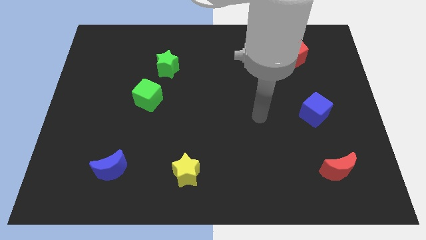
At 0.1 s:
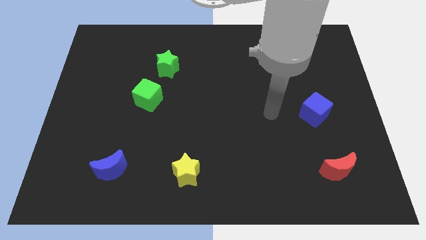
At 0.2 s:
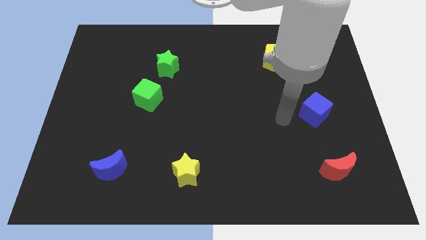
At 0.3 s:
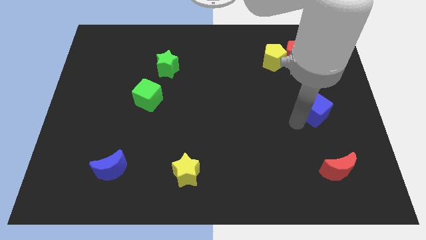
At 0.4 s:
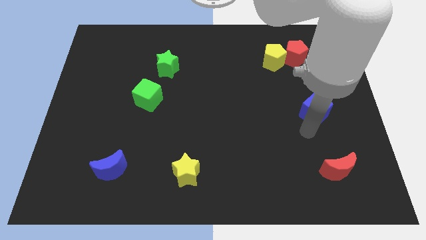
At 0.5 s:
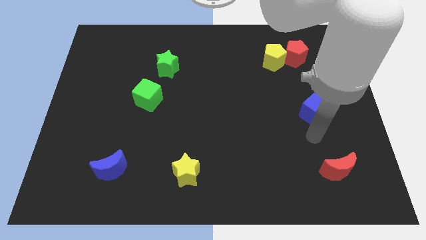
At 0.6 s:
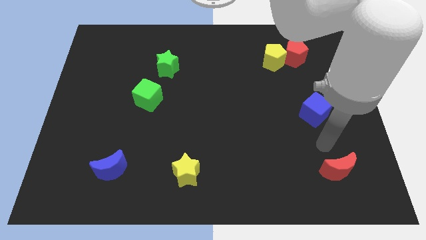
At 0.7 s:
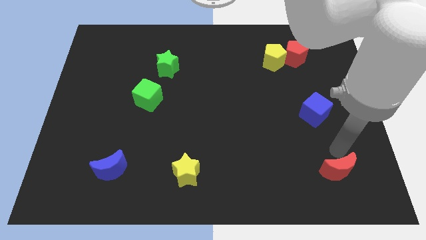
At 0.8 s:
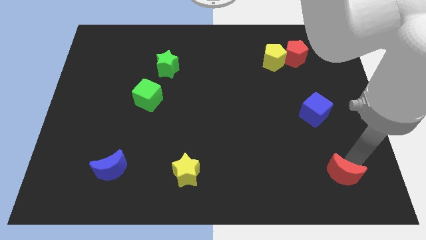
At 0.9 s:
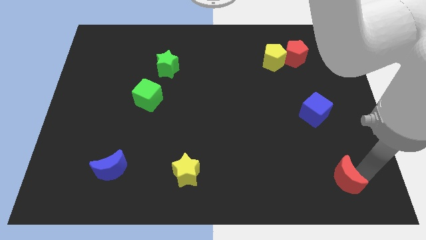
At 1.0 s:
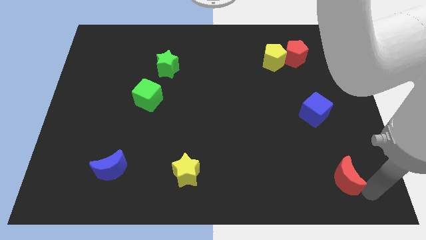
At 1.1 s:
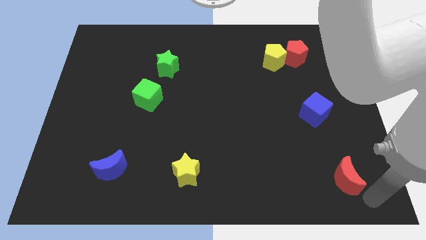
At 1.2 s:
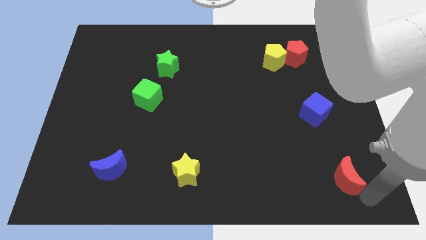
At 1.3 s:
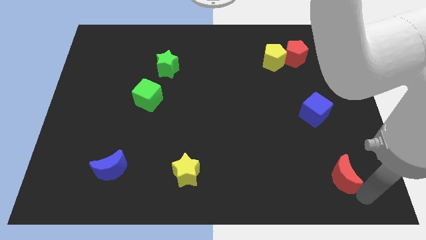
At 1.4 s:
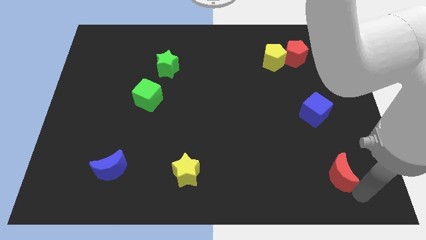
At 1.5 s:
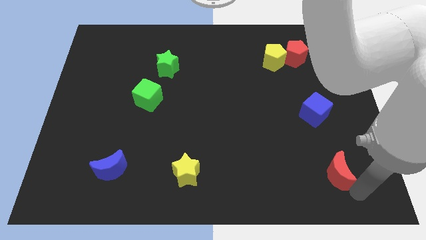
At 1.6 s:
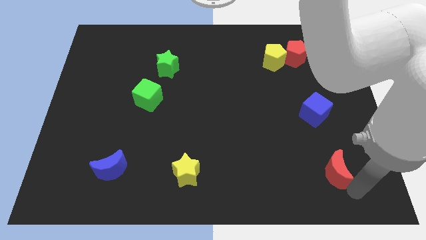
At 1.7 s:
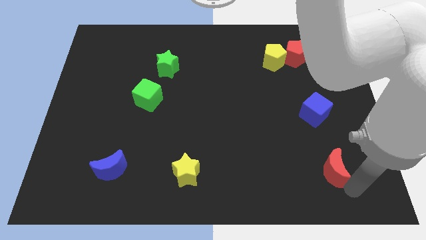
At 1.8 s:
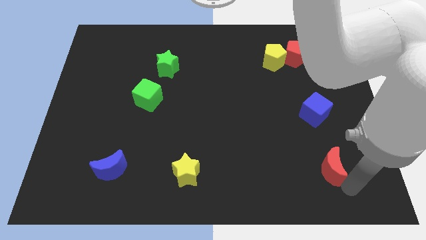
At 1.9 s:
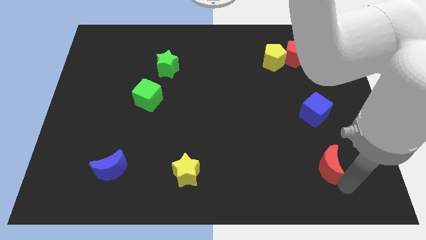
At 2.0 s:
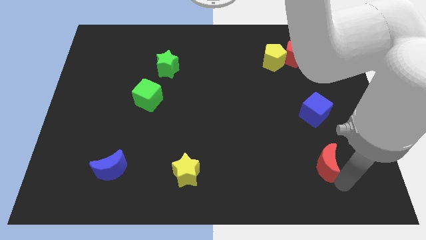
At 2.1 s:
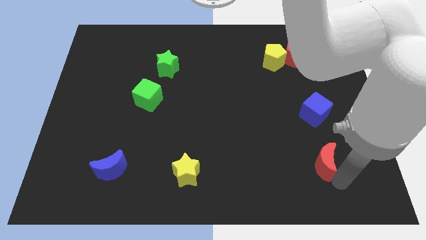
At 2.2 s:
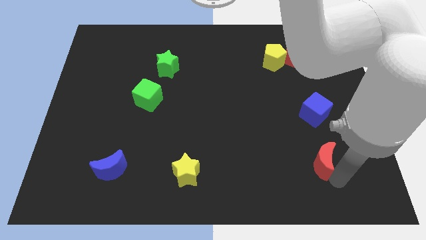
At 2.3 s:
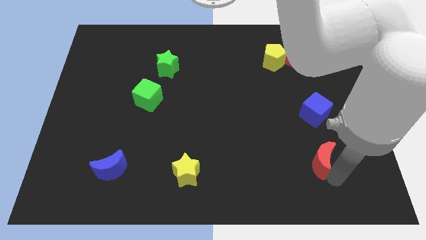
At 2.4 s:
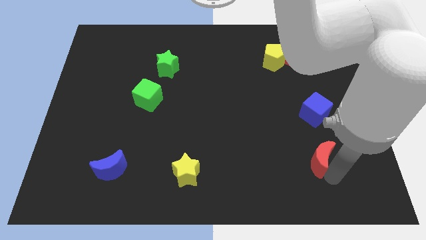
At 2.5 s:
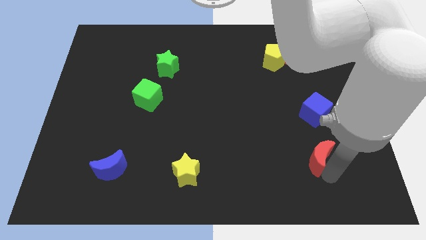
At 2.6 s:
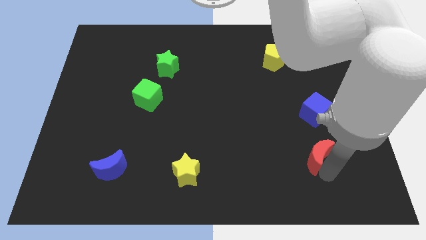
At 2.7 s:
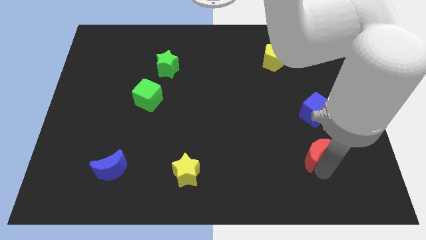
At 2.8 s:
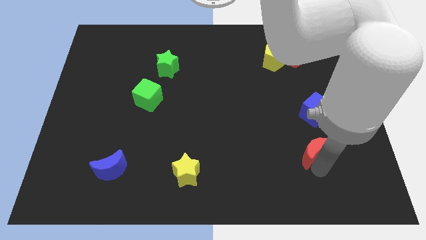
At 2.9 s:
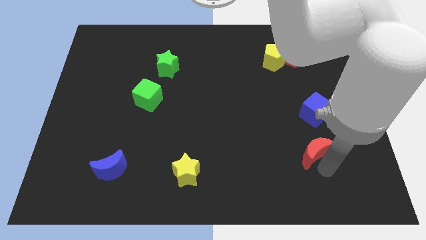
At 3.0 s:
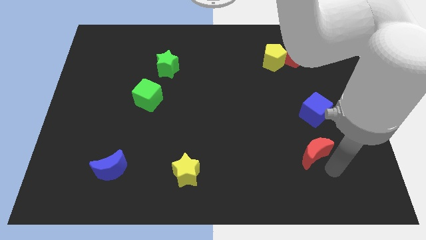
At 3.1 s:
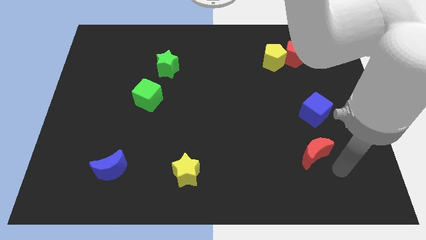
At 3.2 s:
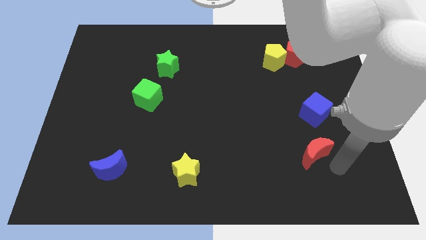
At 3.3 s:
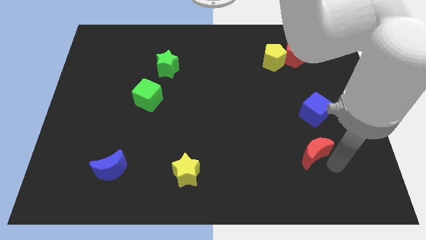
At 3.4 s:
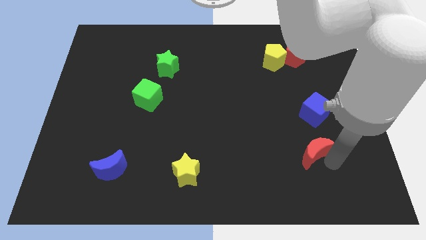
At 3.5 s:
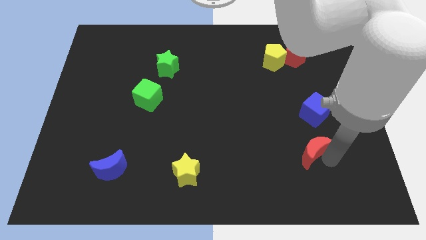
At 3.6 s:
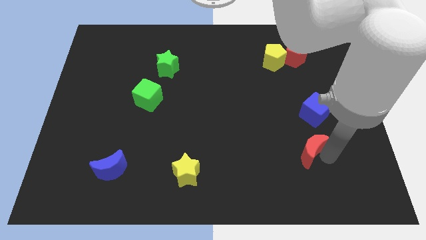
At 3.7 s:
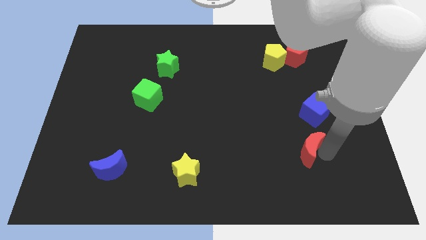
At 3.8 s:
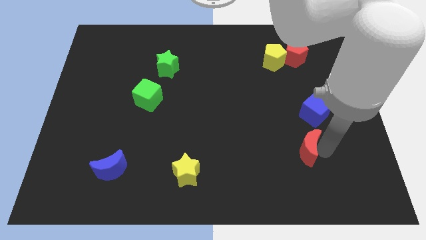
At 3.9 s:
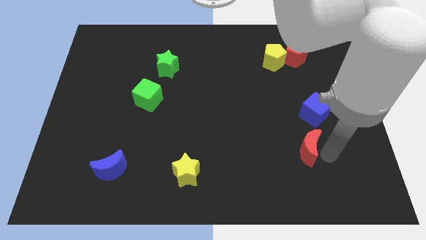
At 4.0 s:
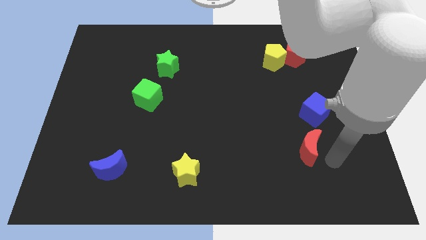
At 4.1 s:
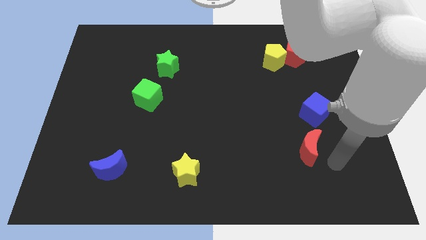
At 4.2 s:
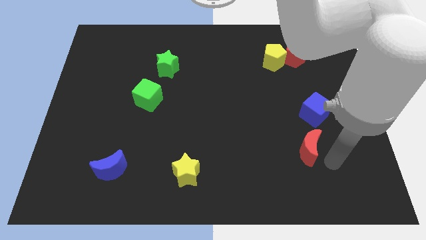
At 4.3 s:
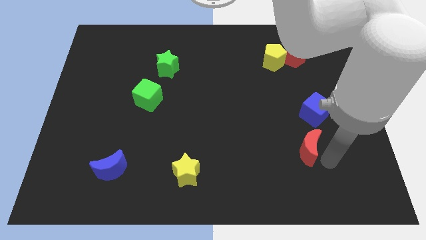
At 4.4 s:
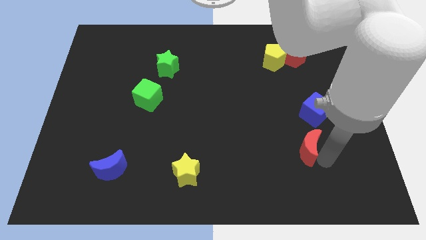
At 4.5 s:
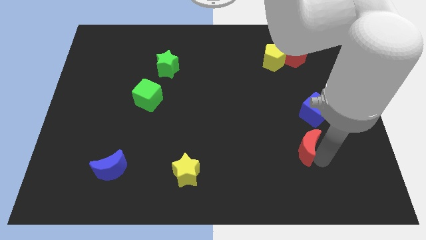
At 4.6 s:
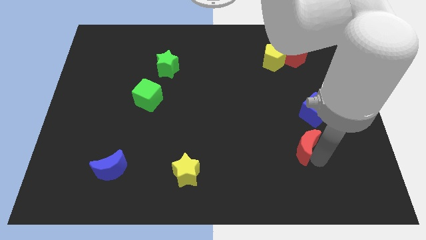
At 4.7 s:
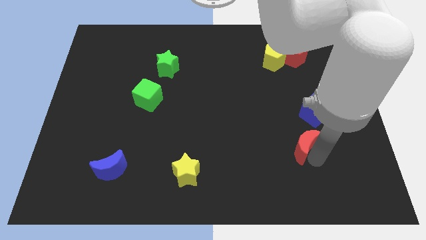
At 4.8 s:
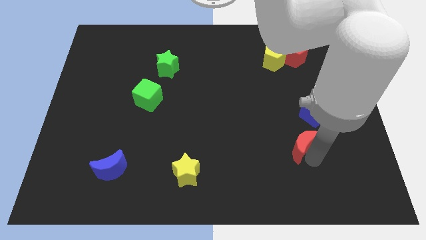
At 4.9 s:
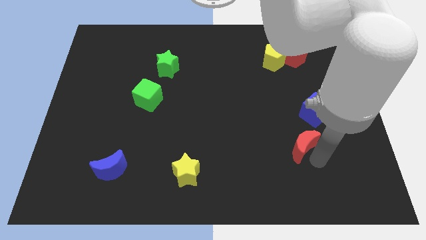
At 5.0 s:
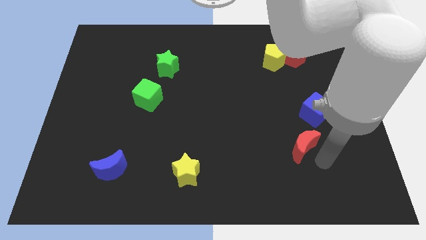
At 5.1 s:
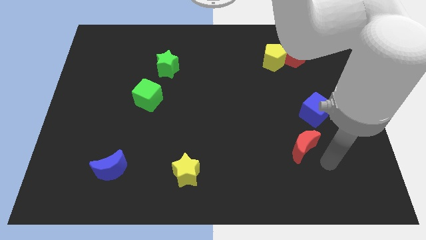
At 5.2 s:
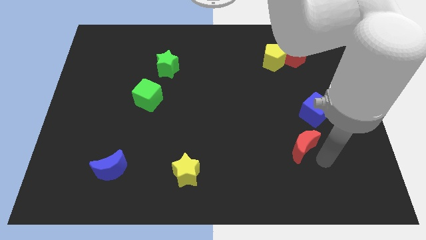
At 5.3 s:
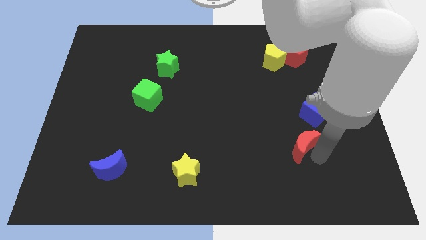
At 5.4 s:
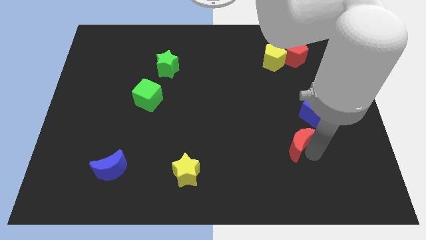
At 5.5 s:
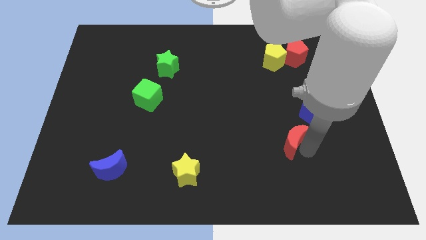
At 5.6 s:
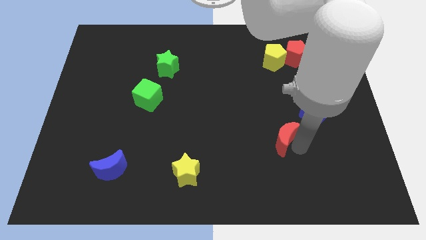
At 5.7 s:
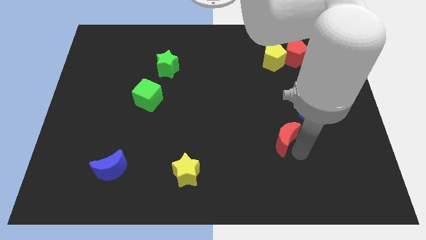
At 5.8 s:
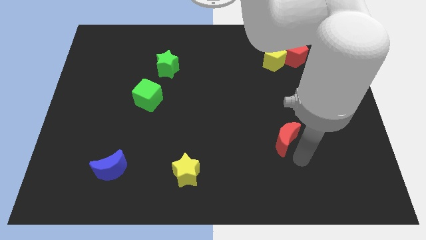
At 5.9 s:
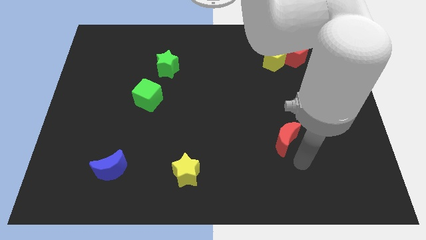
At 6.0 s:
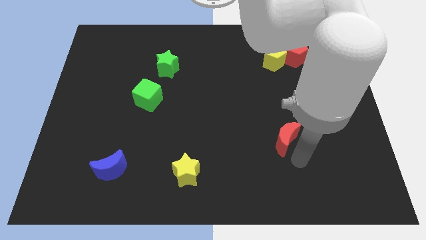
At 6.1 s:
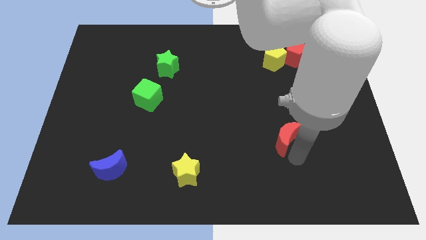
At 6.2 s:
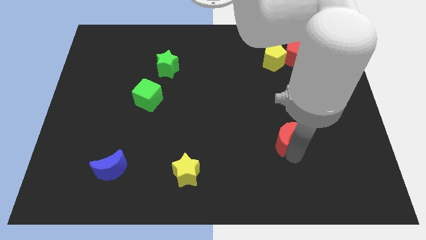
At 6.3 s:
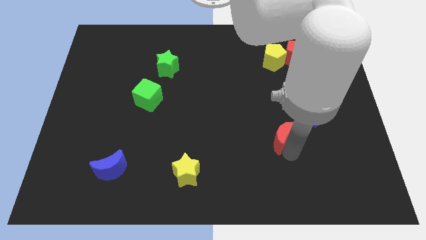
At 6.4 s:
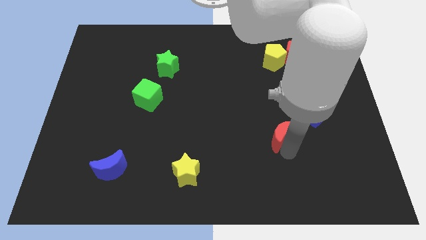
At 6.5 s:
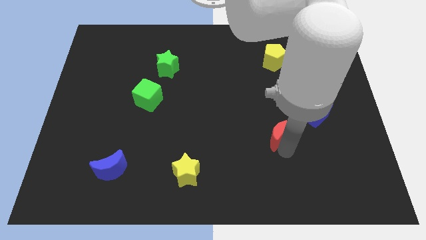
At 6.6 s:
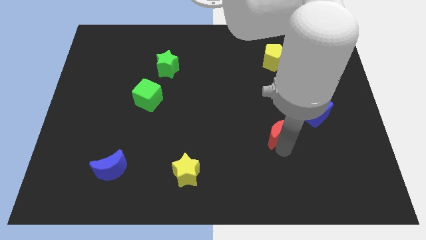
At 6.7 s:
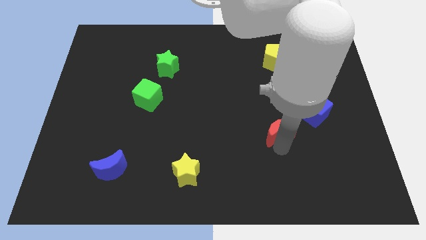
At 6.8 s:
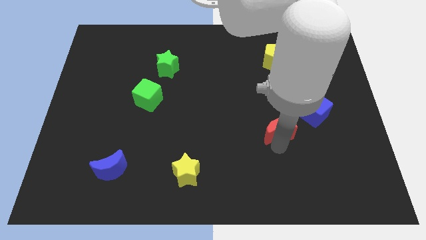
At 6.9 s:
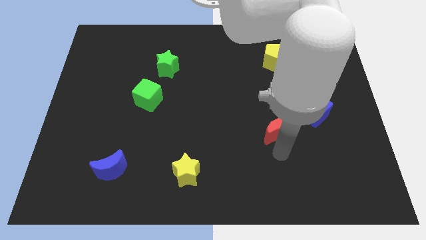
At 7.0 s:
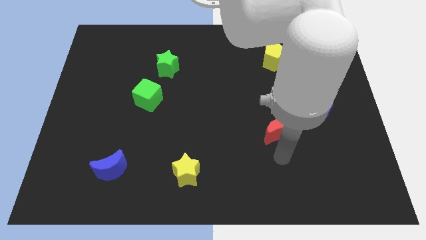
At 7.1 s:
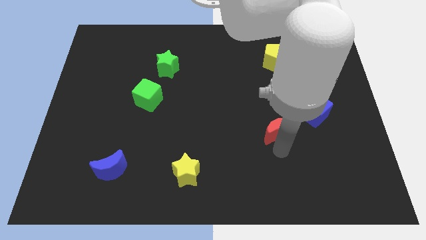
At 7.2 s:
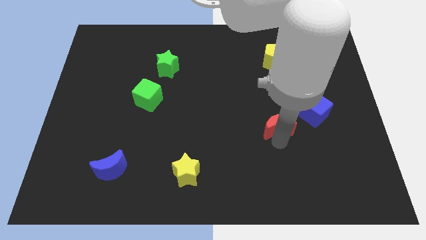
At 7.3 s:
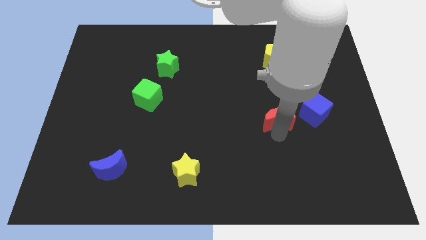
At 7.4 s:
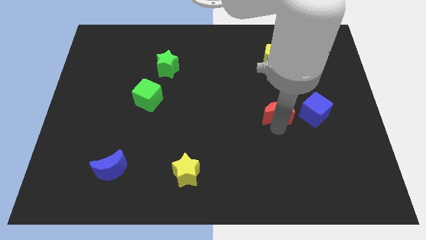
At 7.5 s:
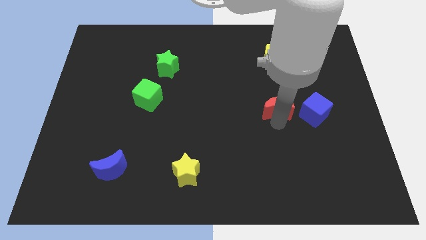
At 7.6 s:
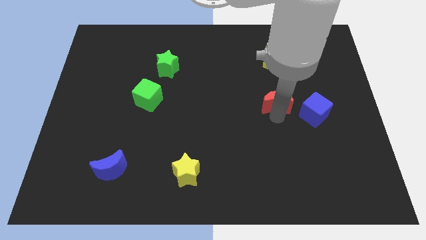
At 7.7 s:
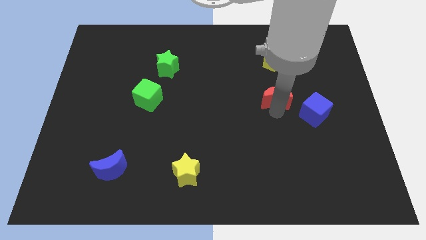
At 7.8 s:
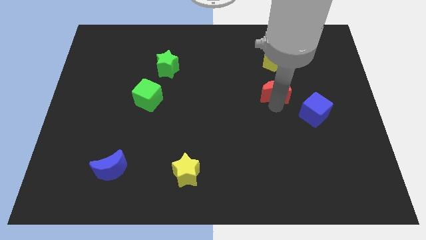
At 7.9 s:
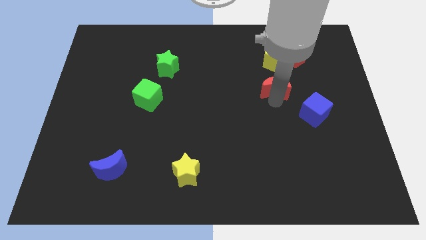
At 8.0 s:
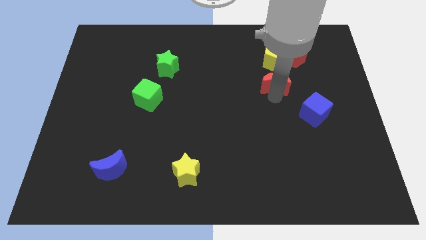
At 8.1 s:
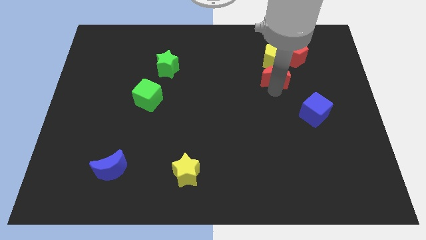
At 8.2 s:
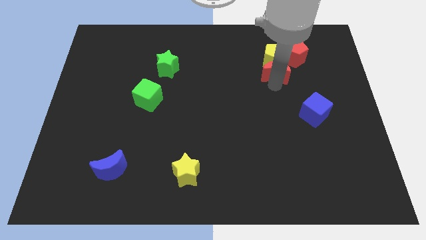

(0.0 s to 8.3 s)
move the red moon towards the yellow pentagon
